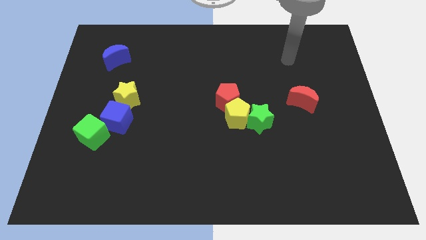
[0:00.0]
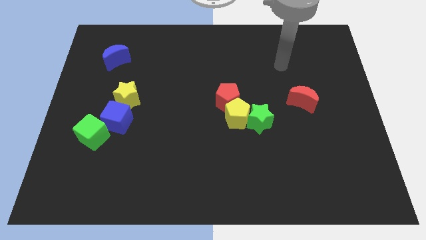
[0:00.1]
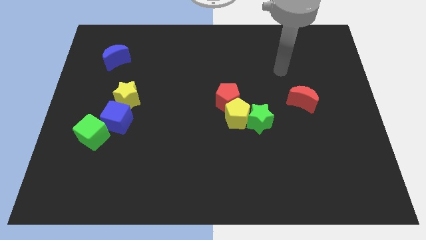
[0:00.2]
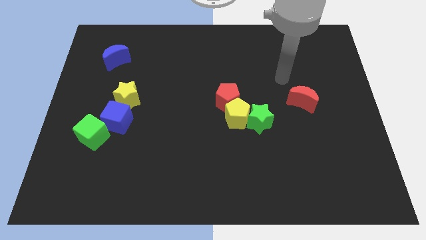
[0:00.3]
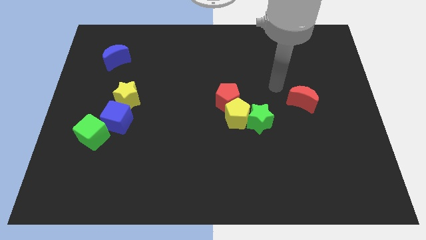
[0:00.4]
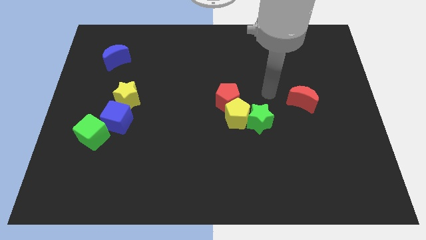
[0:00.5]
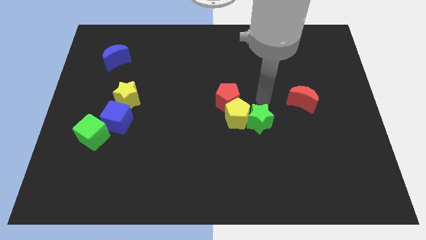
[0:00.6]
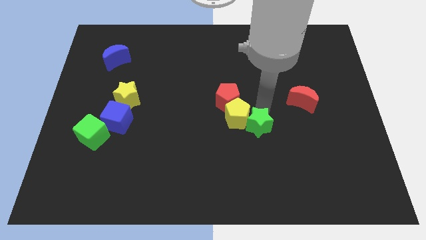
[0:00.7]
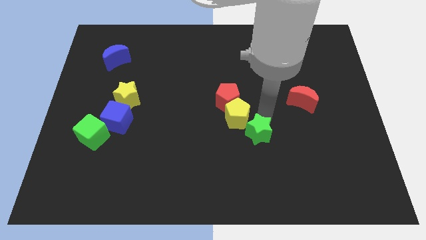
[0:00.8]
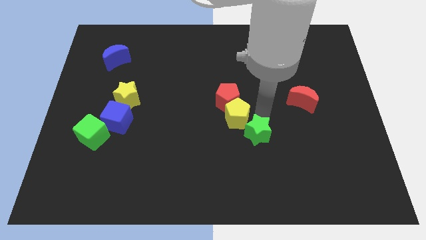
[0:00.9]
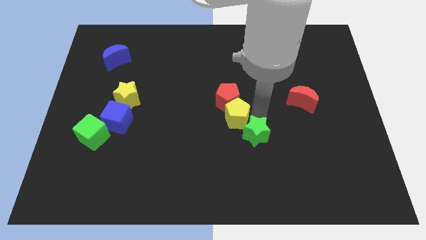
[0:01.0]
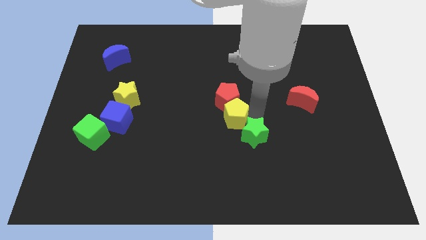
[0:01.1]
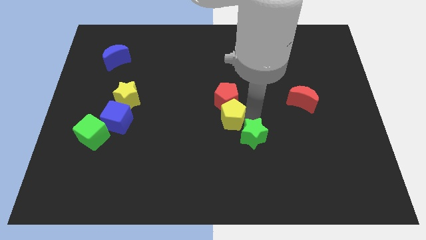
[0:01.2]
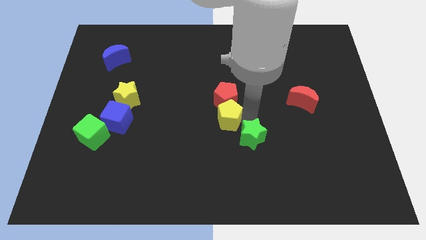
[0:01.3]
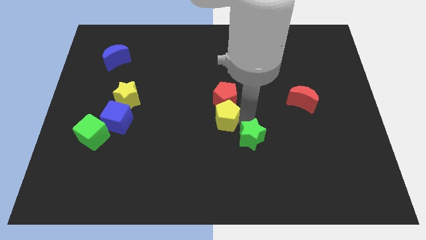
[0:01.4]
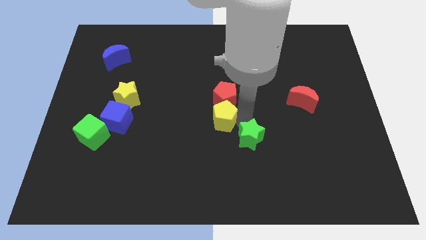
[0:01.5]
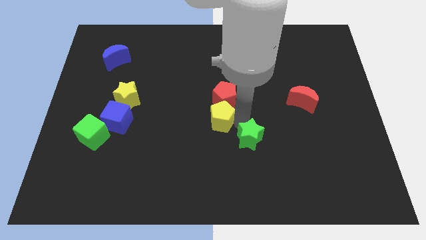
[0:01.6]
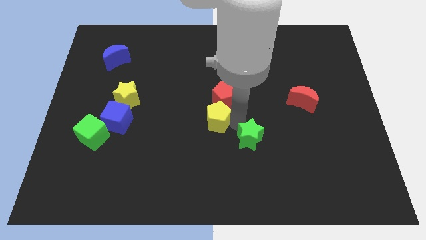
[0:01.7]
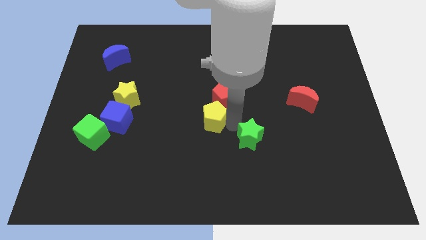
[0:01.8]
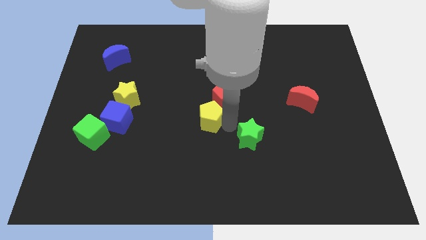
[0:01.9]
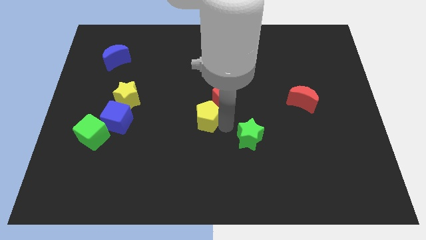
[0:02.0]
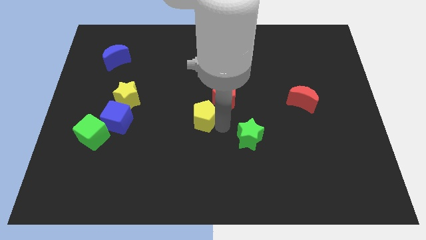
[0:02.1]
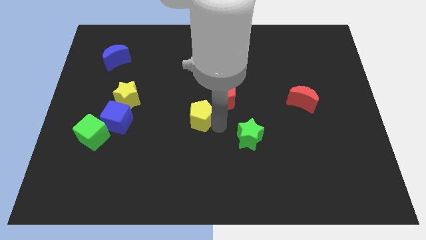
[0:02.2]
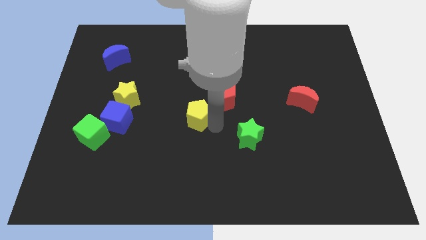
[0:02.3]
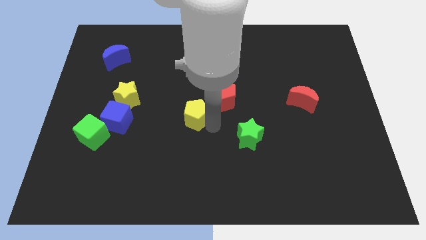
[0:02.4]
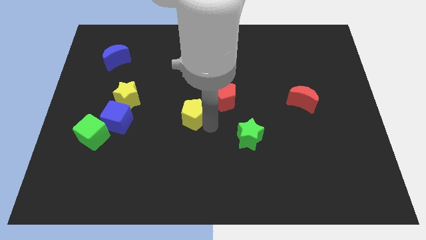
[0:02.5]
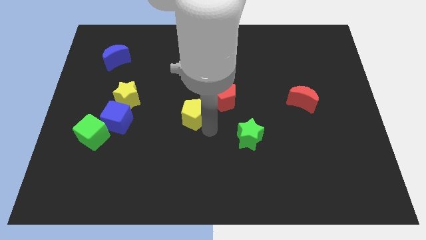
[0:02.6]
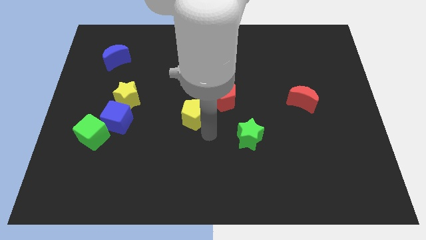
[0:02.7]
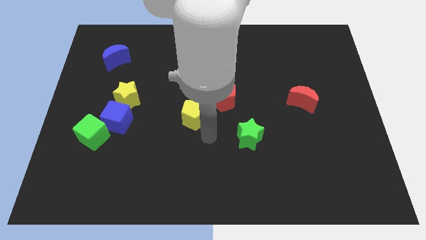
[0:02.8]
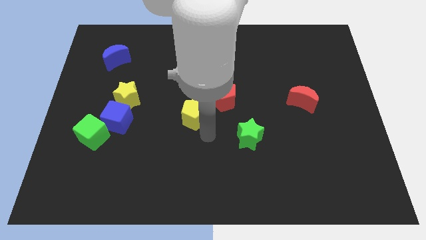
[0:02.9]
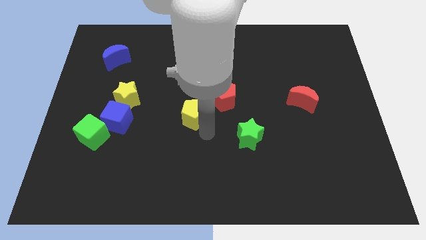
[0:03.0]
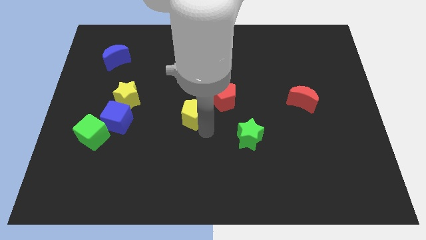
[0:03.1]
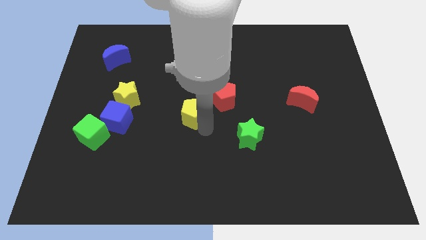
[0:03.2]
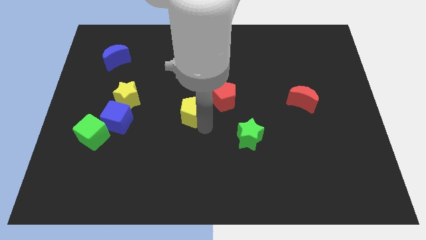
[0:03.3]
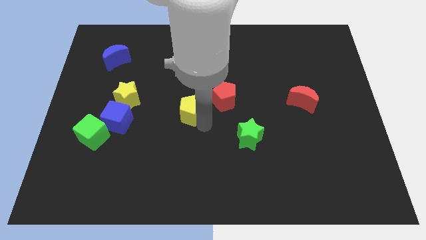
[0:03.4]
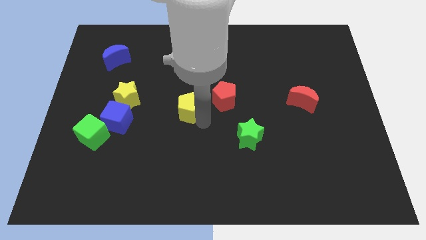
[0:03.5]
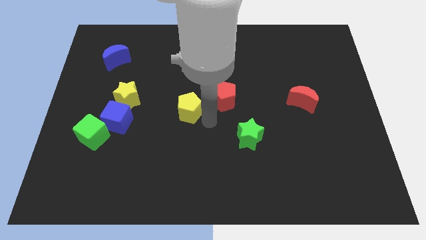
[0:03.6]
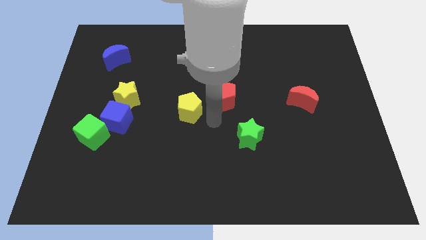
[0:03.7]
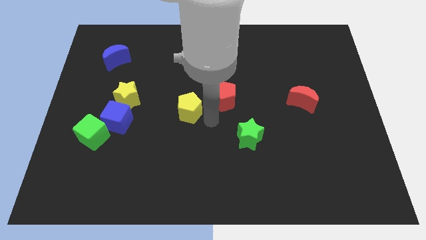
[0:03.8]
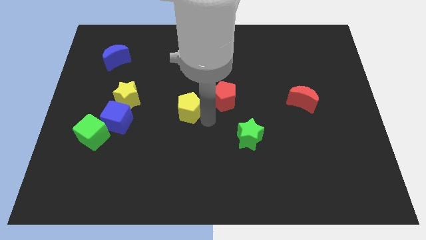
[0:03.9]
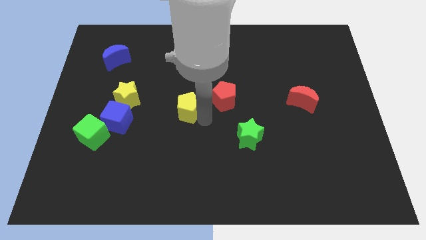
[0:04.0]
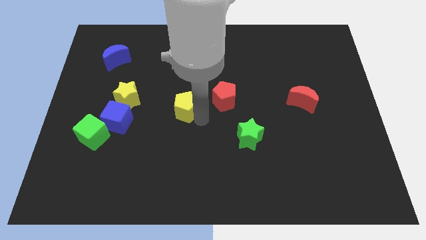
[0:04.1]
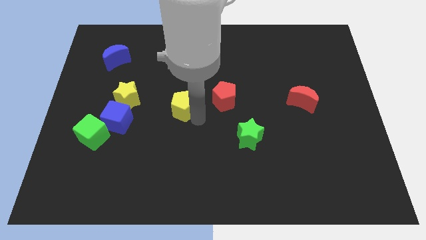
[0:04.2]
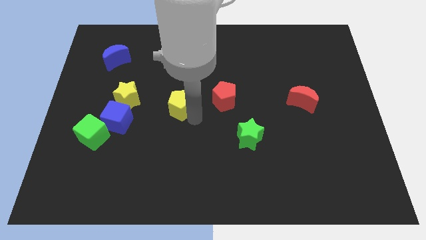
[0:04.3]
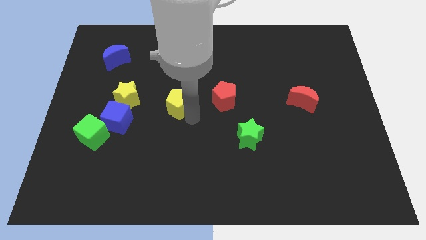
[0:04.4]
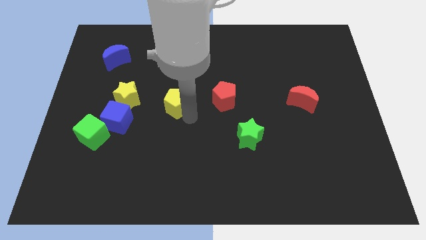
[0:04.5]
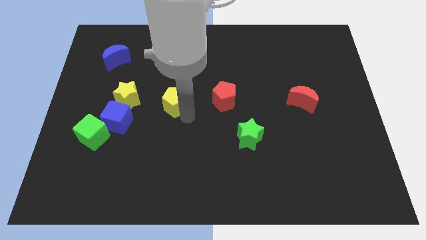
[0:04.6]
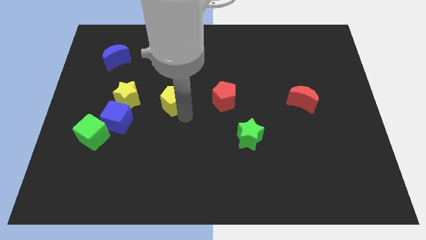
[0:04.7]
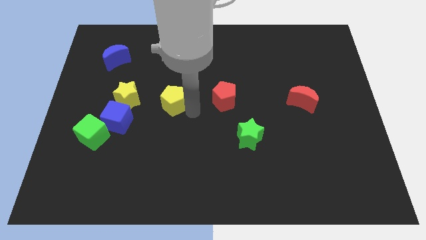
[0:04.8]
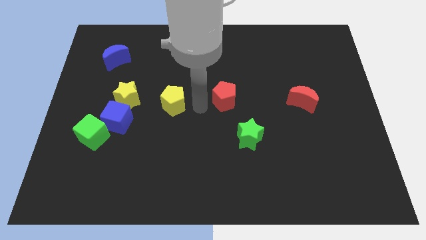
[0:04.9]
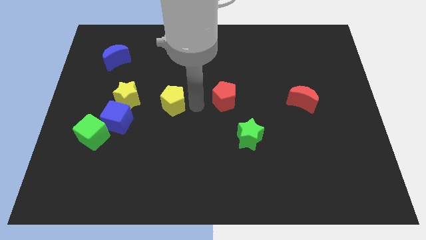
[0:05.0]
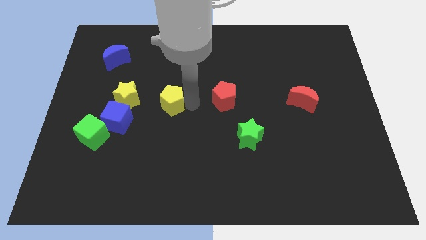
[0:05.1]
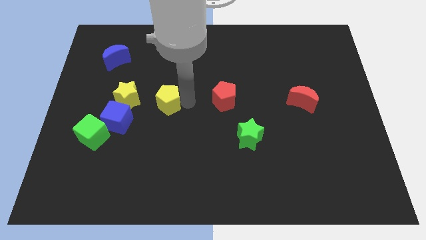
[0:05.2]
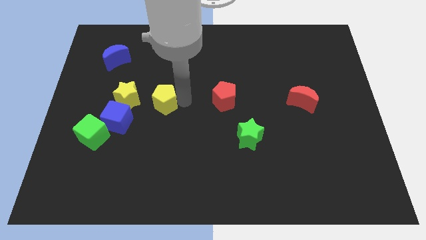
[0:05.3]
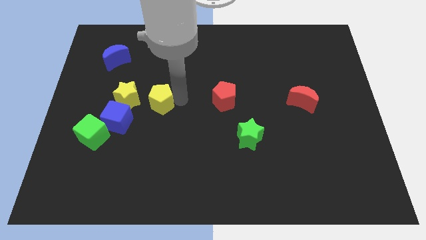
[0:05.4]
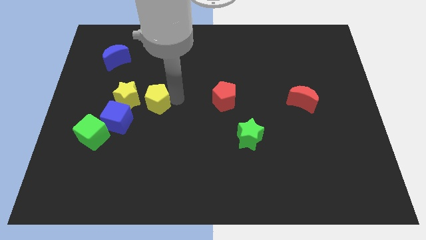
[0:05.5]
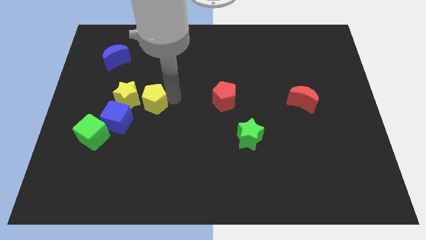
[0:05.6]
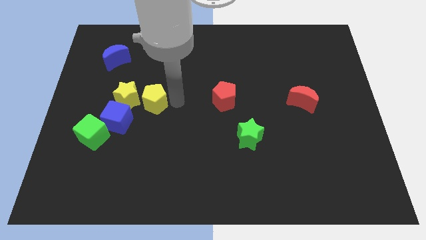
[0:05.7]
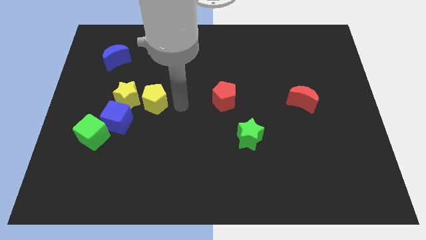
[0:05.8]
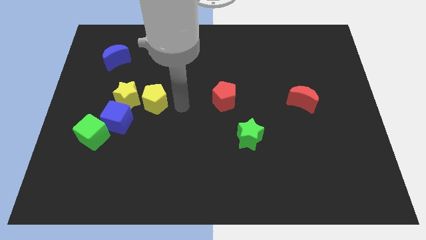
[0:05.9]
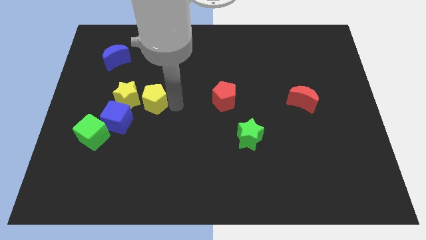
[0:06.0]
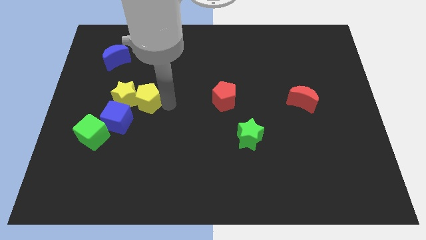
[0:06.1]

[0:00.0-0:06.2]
move the yellow pentagon close to the yellow star
